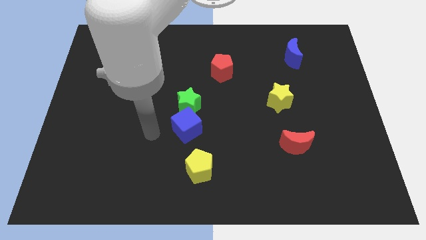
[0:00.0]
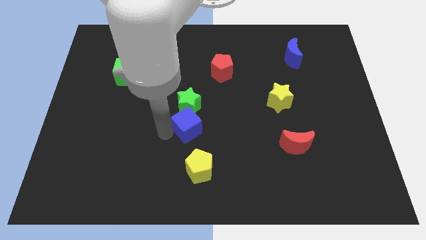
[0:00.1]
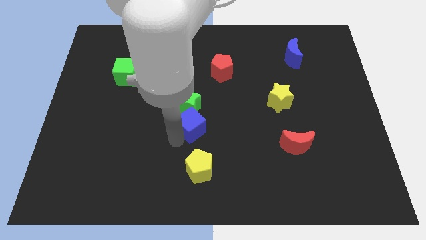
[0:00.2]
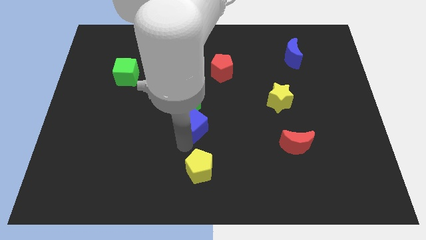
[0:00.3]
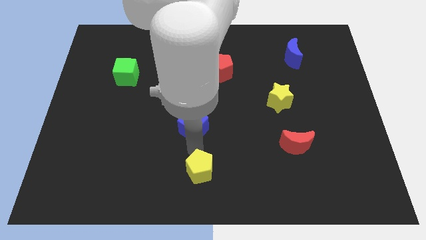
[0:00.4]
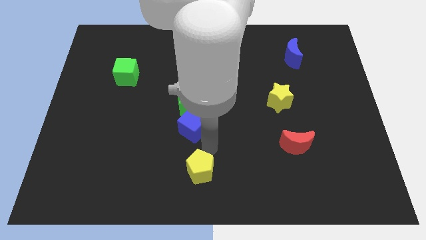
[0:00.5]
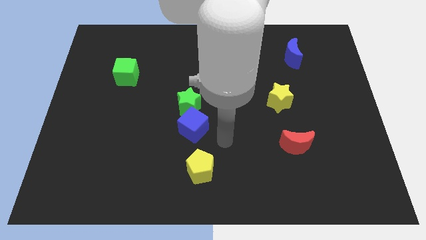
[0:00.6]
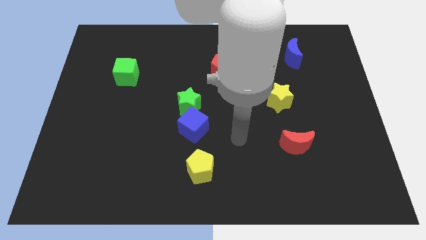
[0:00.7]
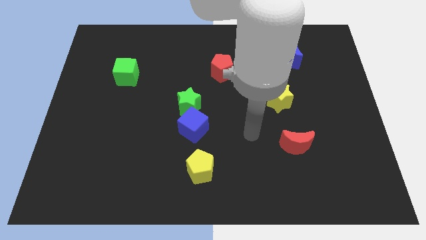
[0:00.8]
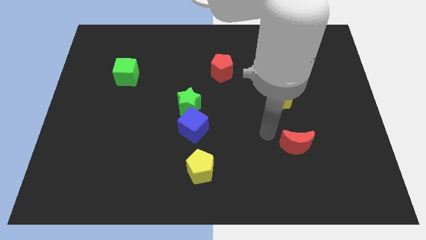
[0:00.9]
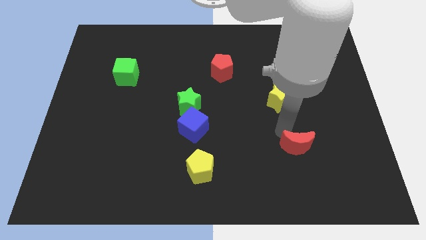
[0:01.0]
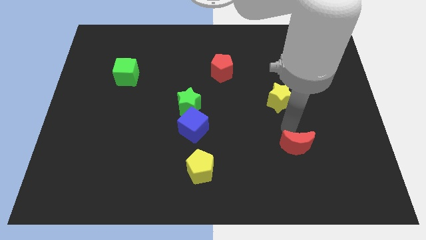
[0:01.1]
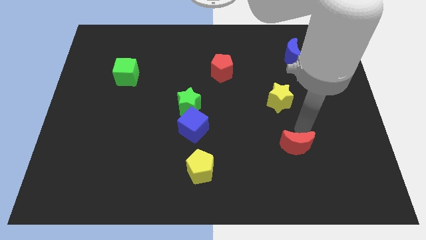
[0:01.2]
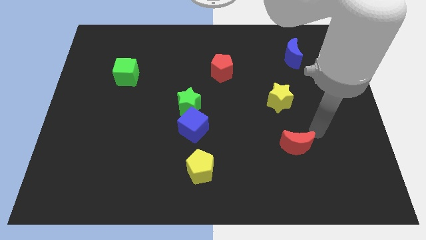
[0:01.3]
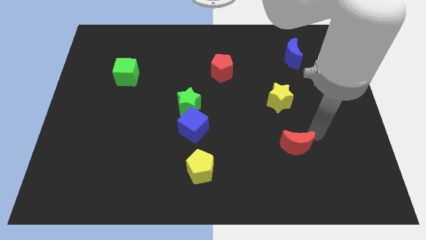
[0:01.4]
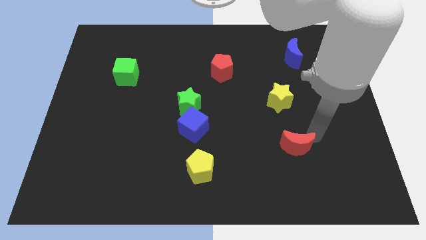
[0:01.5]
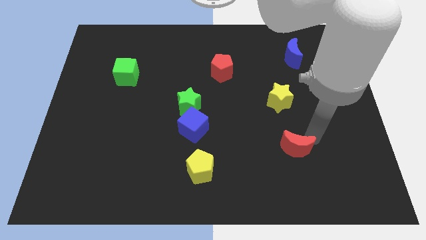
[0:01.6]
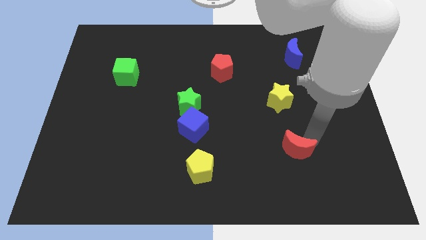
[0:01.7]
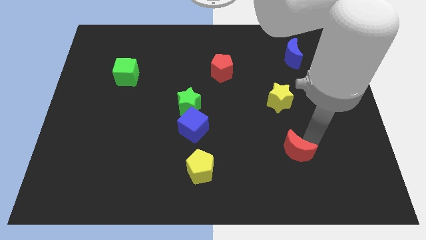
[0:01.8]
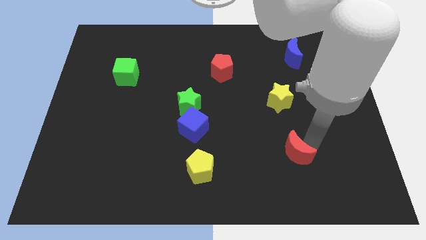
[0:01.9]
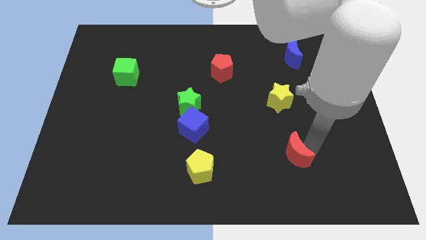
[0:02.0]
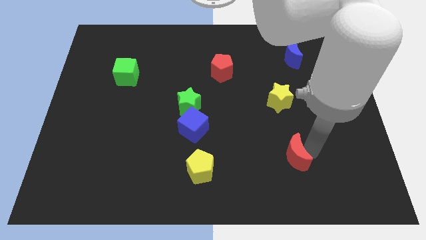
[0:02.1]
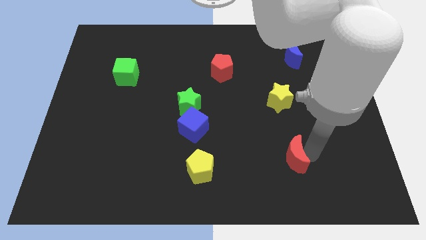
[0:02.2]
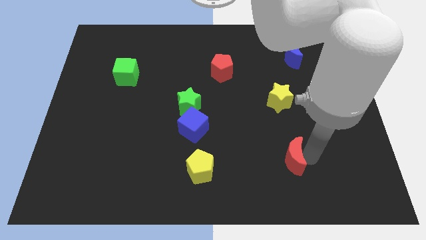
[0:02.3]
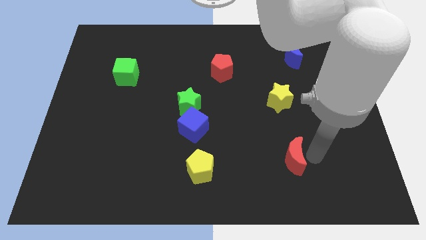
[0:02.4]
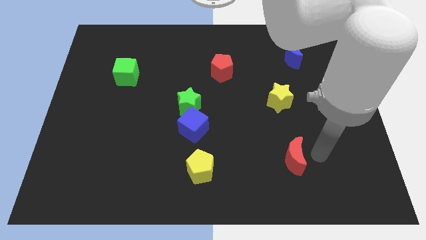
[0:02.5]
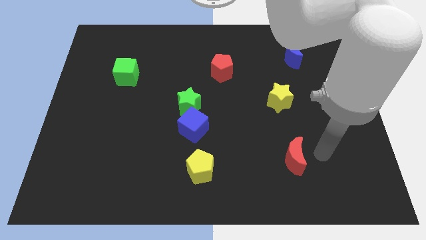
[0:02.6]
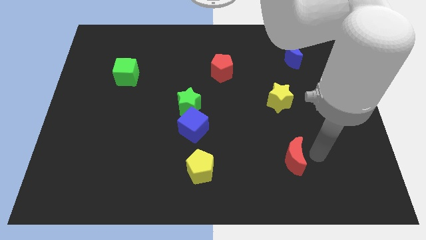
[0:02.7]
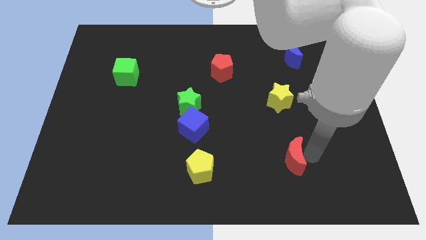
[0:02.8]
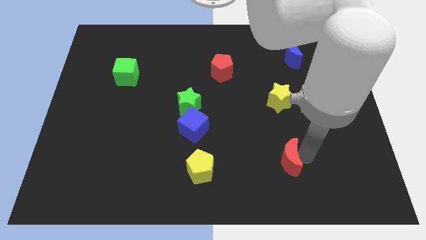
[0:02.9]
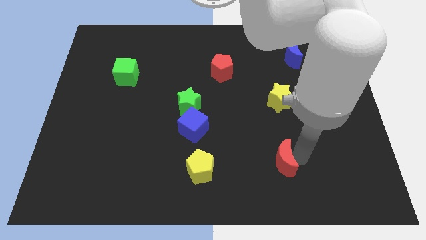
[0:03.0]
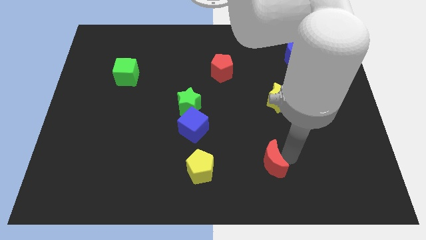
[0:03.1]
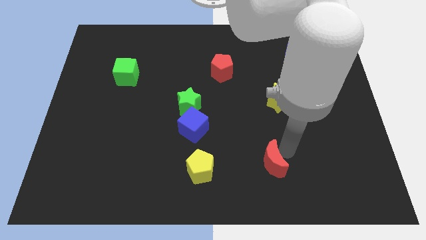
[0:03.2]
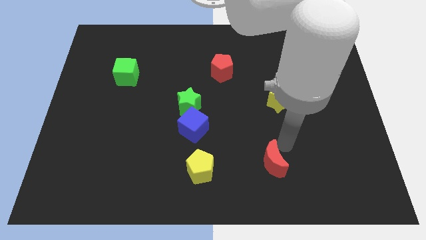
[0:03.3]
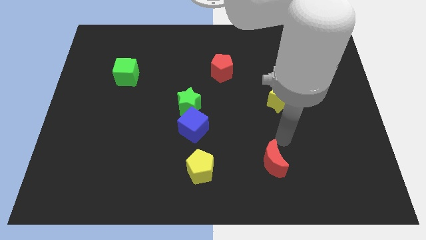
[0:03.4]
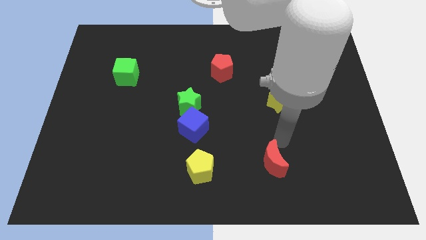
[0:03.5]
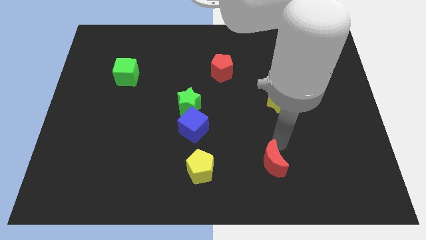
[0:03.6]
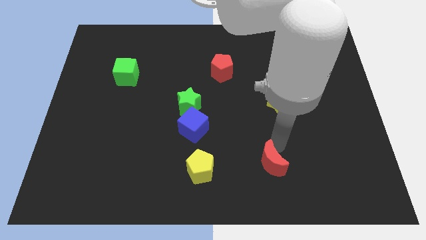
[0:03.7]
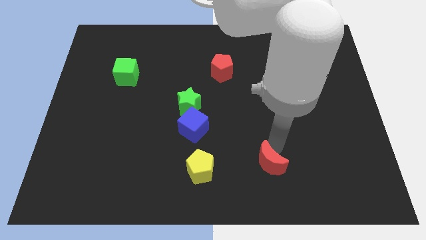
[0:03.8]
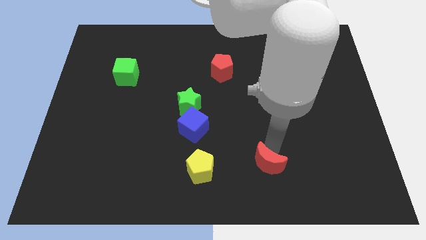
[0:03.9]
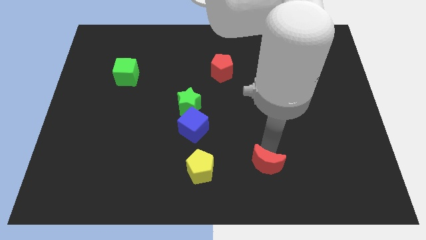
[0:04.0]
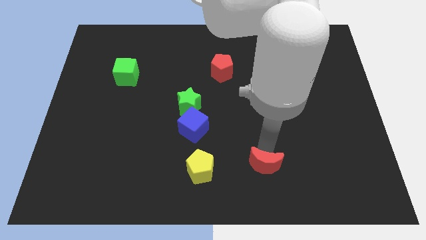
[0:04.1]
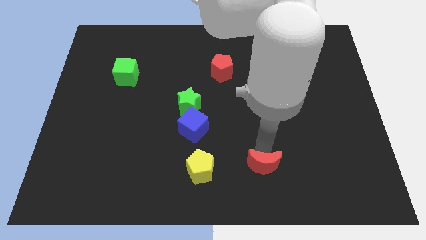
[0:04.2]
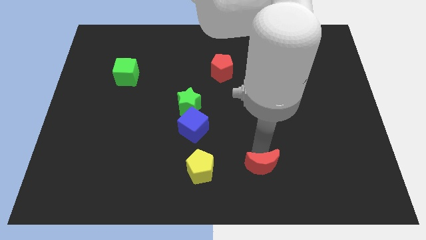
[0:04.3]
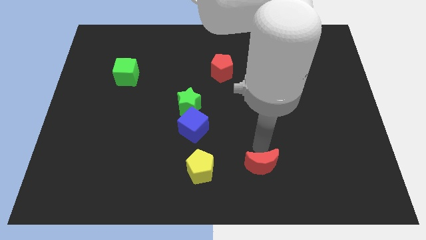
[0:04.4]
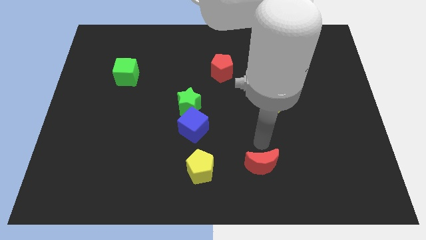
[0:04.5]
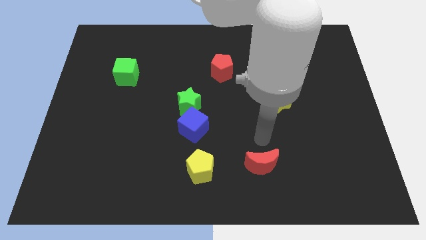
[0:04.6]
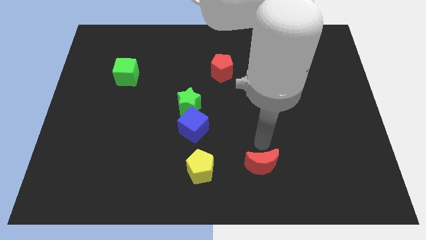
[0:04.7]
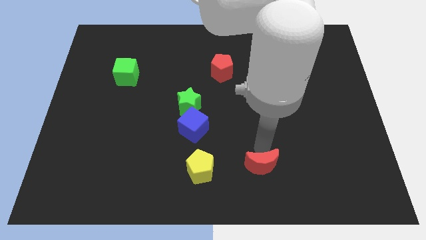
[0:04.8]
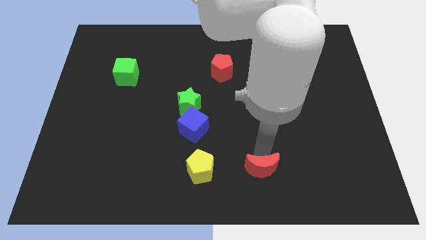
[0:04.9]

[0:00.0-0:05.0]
move the red moon to the bottom side

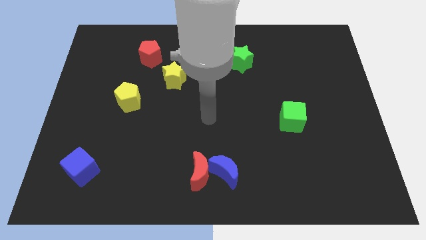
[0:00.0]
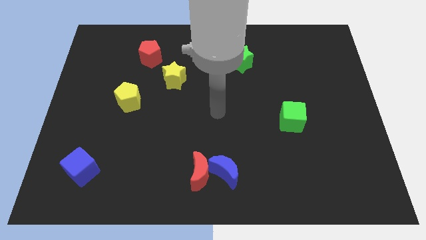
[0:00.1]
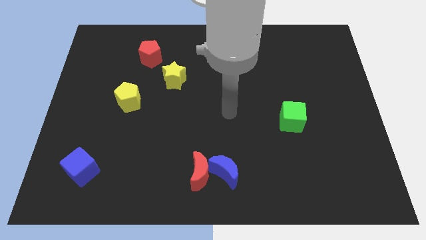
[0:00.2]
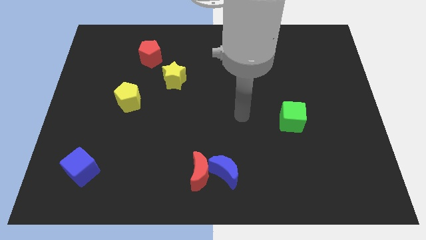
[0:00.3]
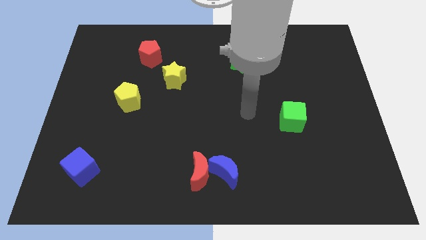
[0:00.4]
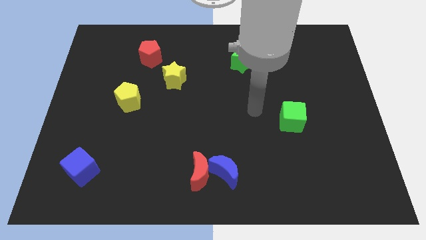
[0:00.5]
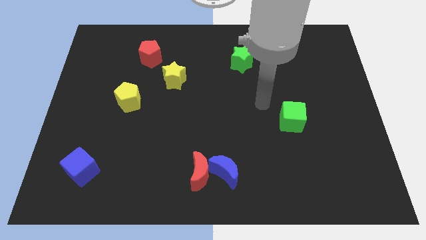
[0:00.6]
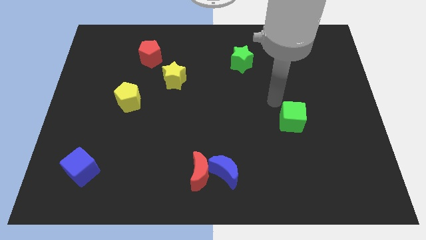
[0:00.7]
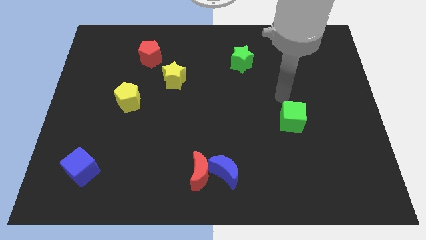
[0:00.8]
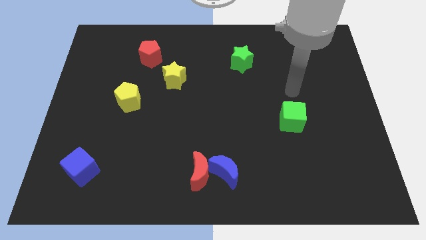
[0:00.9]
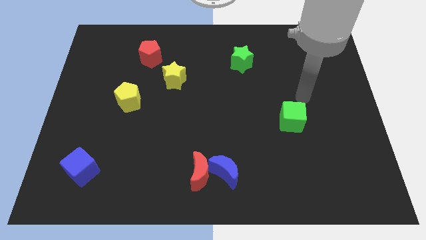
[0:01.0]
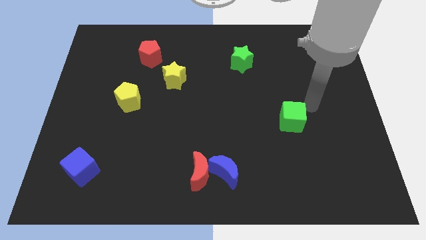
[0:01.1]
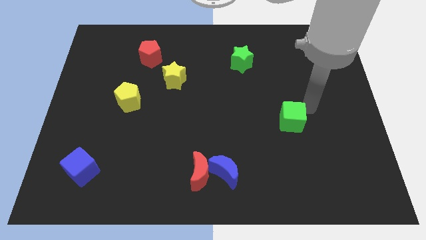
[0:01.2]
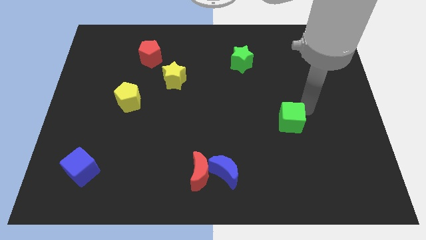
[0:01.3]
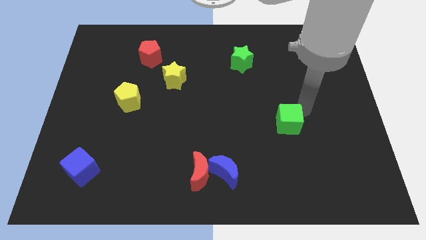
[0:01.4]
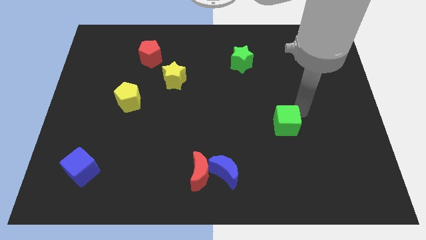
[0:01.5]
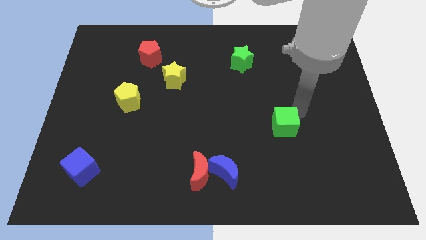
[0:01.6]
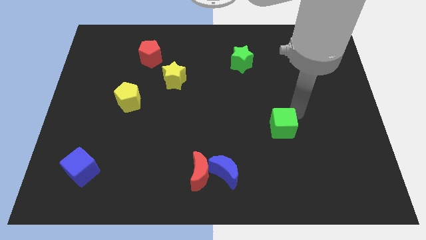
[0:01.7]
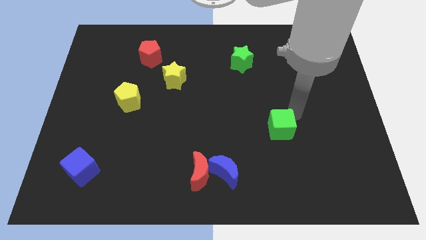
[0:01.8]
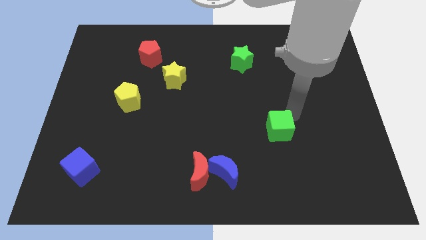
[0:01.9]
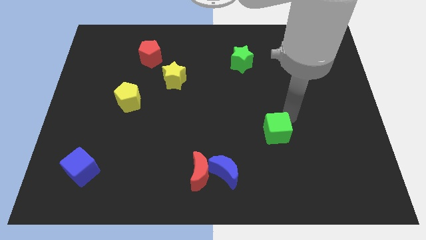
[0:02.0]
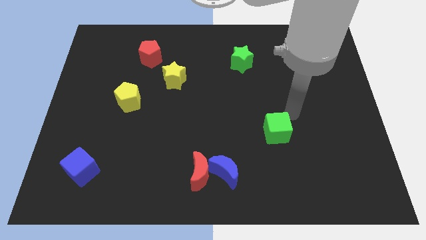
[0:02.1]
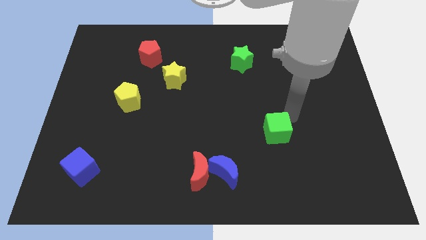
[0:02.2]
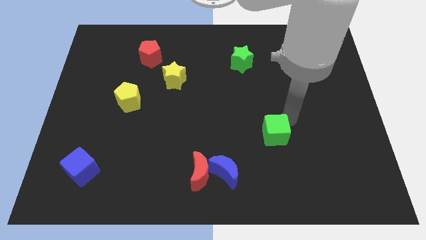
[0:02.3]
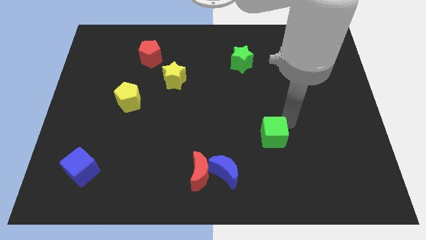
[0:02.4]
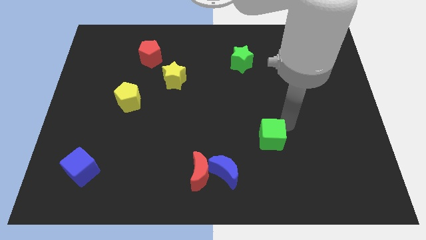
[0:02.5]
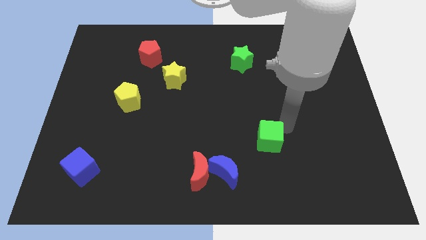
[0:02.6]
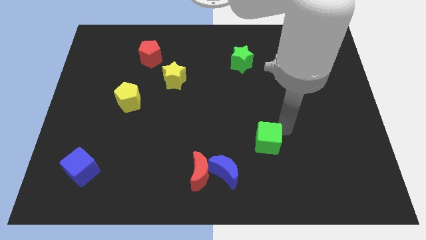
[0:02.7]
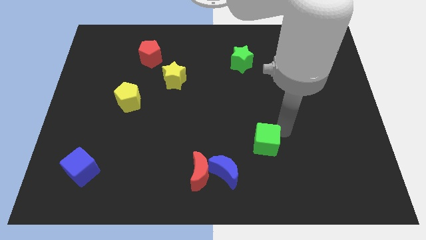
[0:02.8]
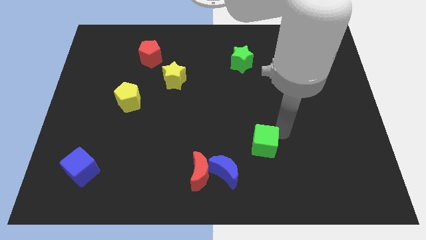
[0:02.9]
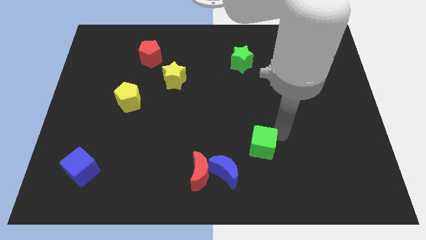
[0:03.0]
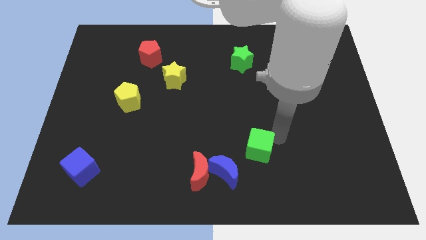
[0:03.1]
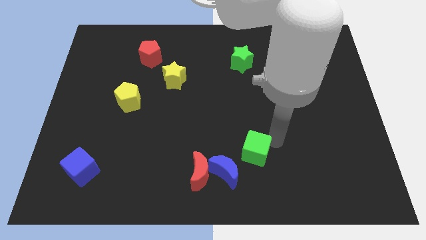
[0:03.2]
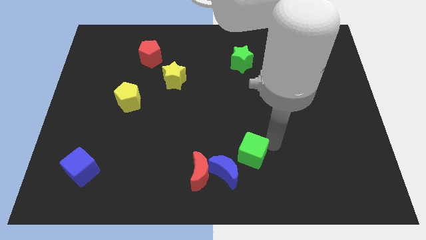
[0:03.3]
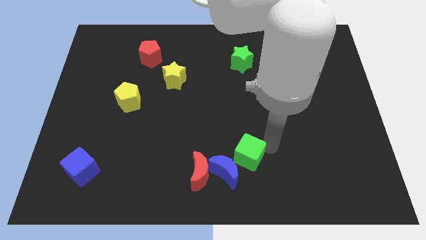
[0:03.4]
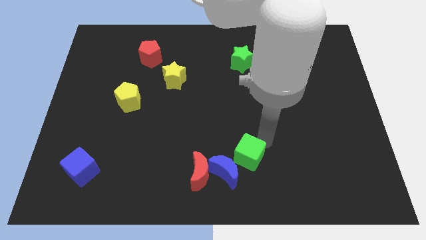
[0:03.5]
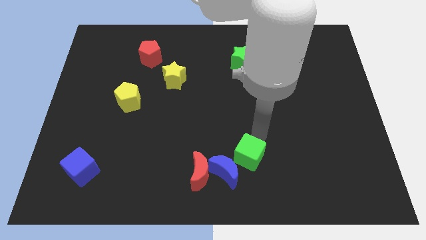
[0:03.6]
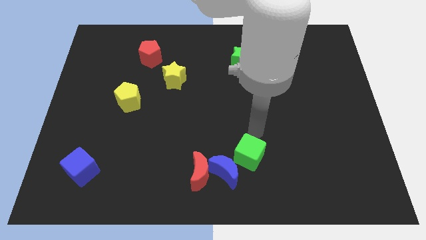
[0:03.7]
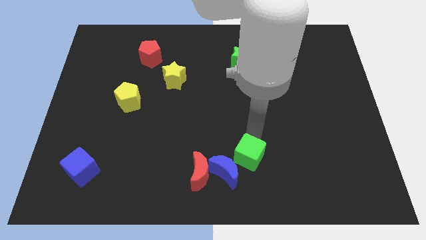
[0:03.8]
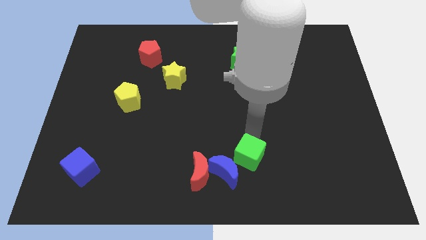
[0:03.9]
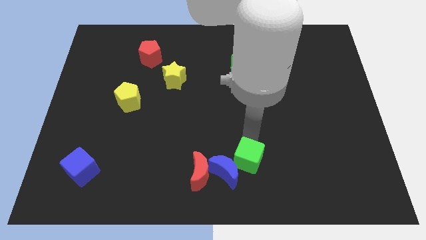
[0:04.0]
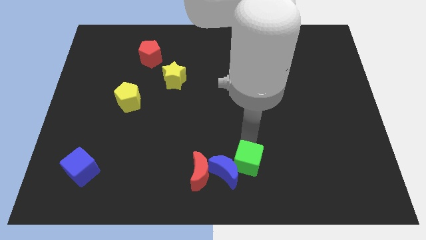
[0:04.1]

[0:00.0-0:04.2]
slide the green cube to the bottom side
